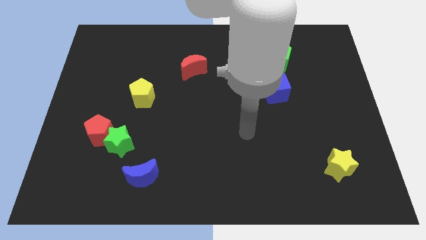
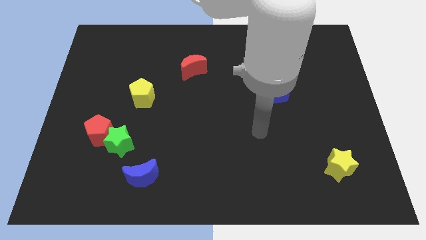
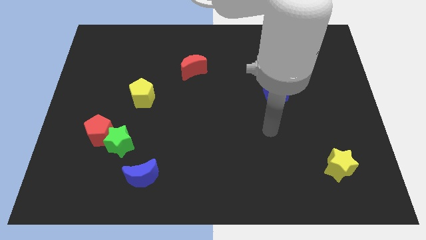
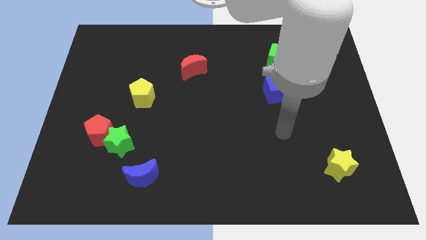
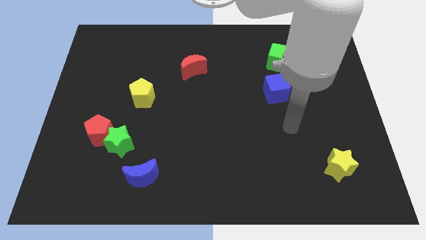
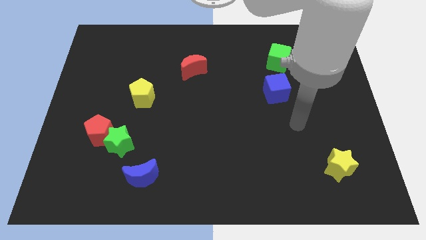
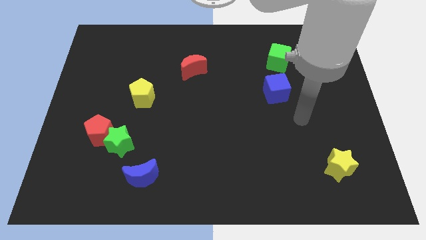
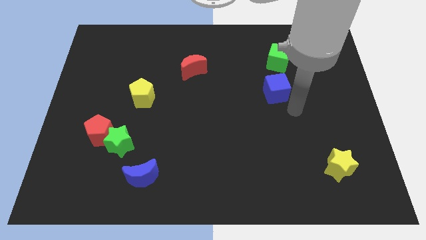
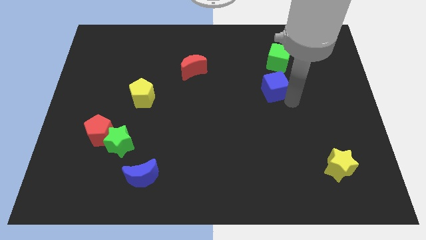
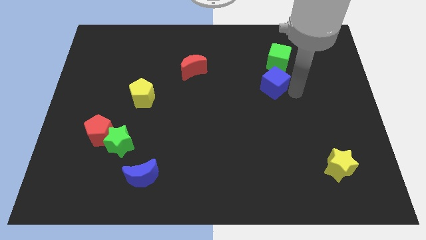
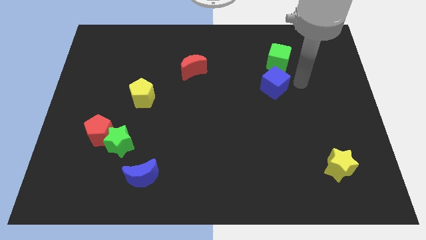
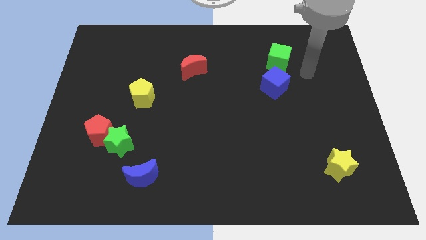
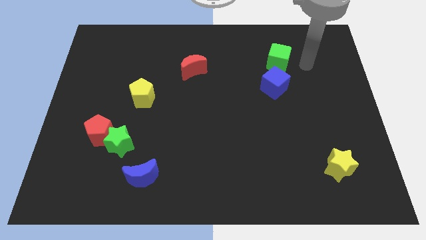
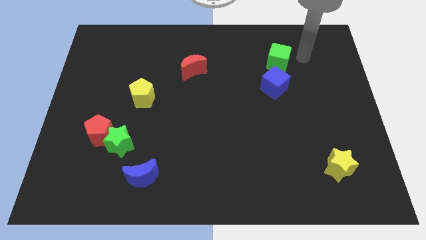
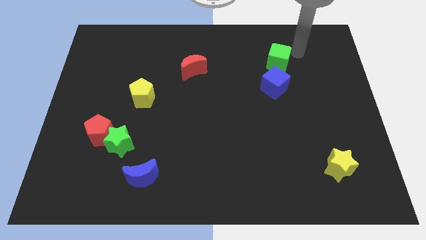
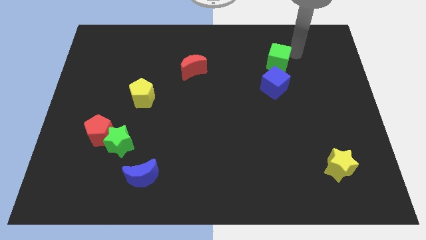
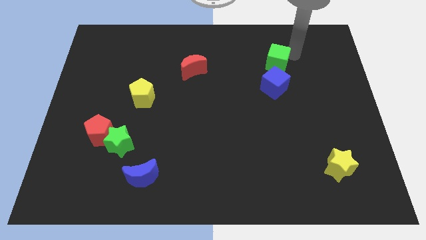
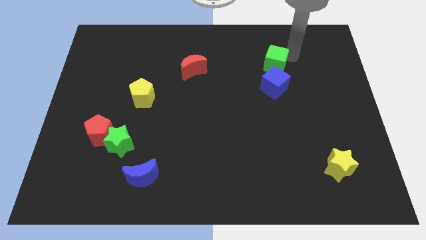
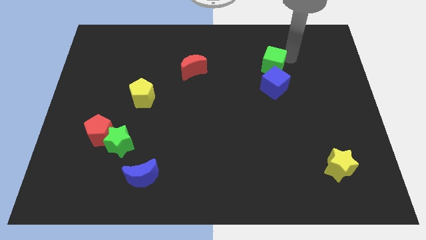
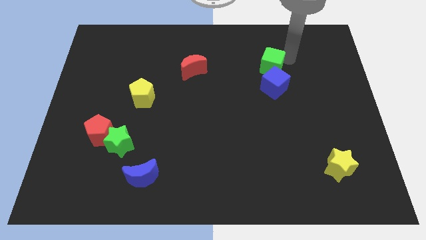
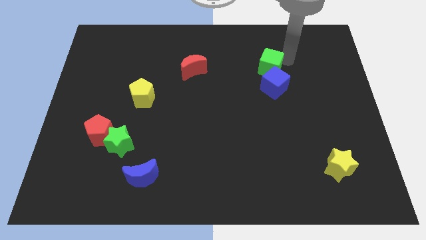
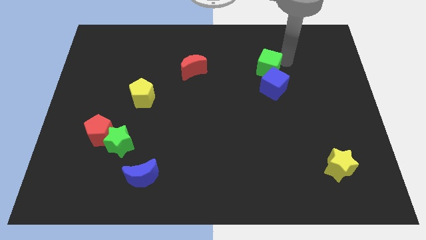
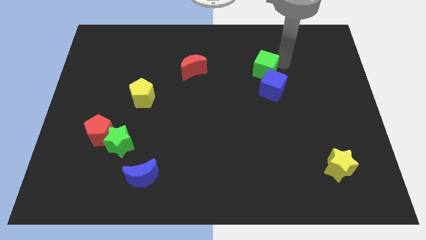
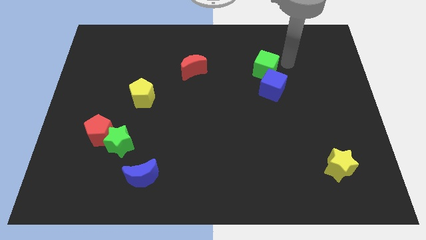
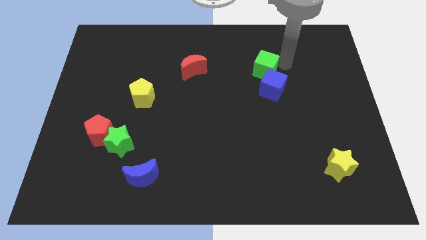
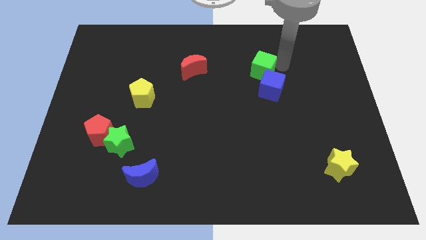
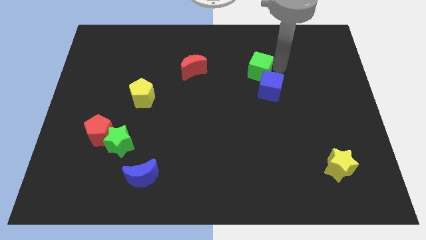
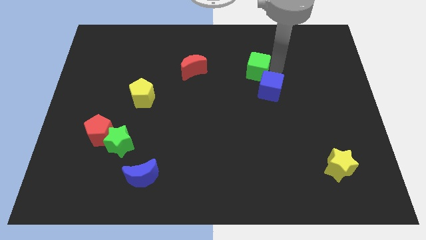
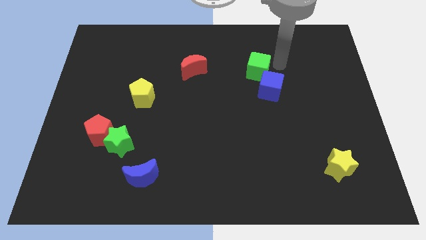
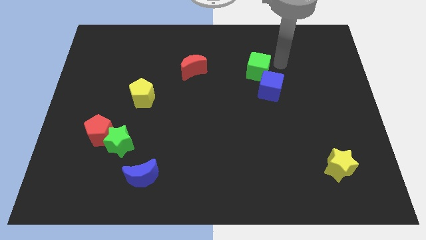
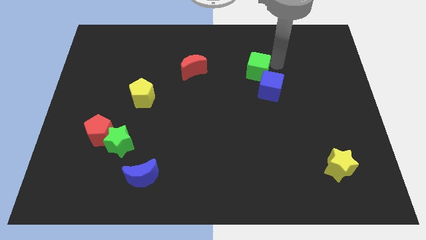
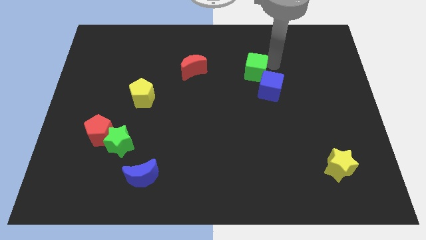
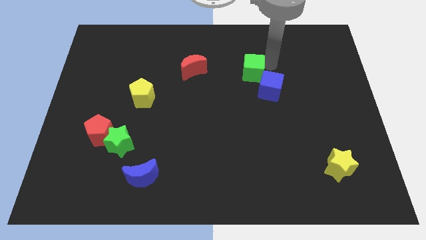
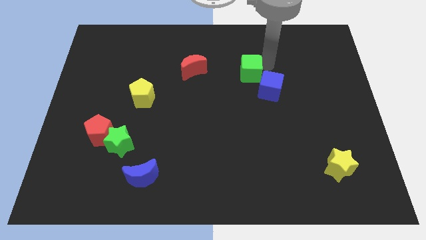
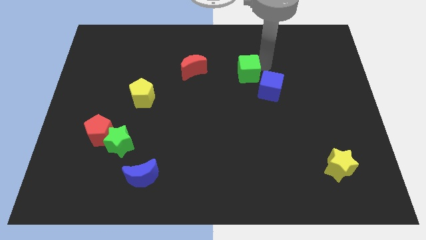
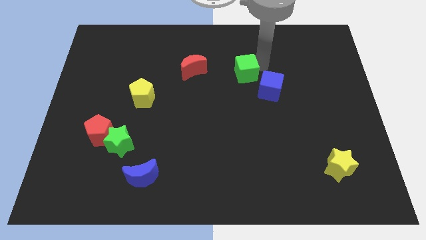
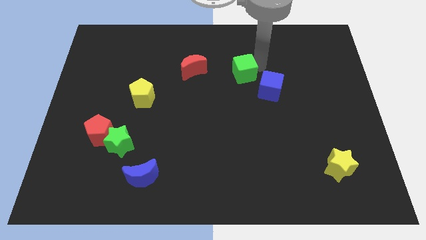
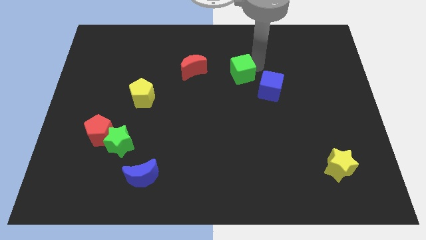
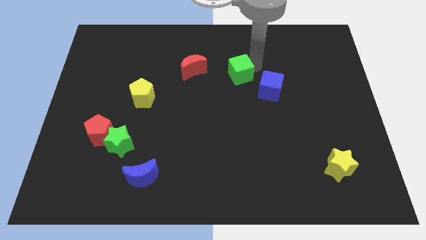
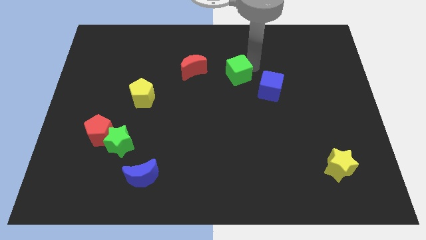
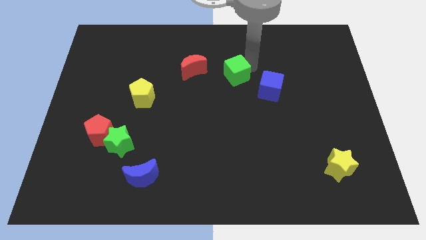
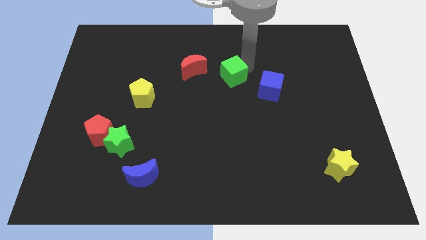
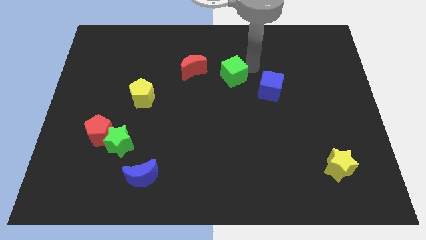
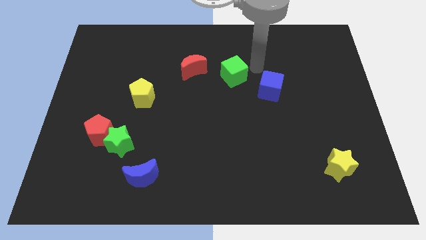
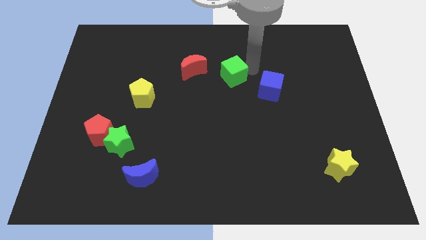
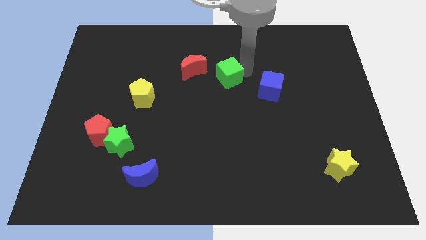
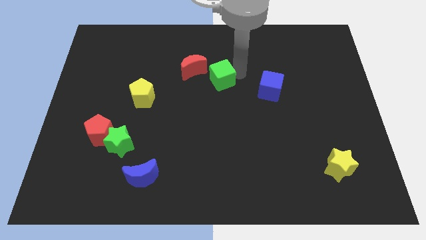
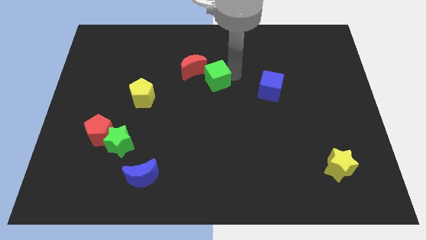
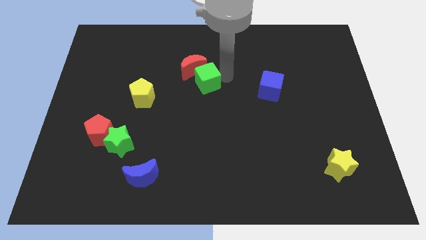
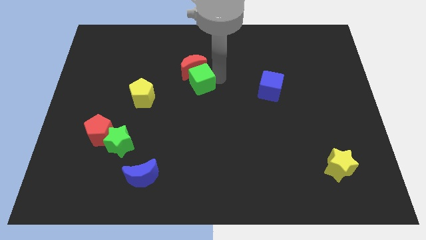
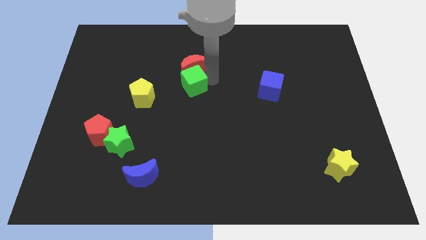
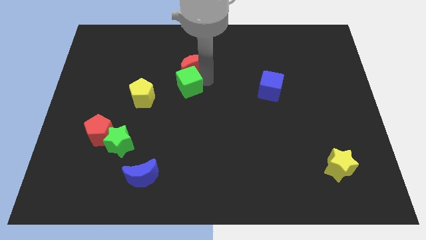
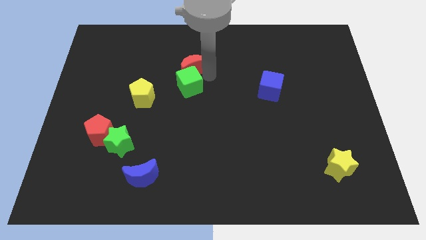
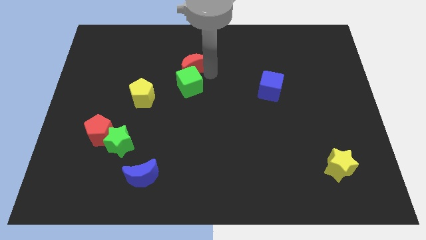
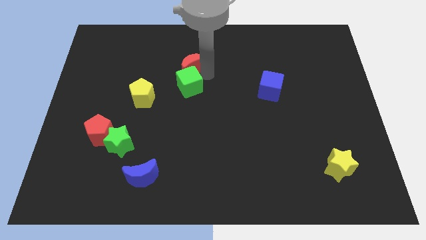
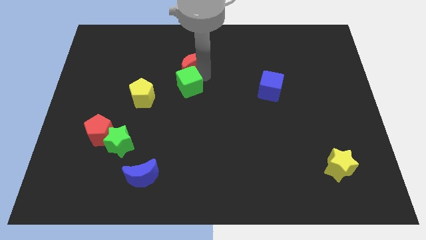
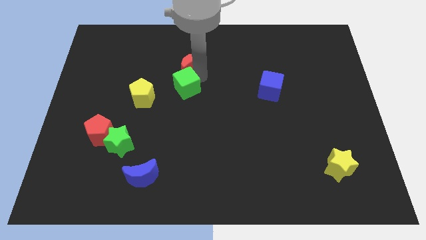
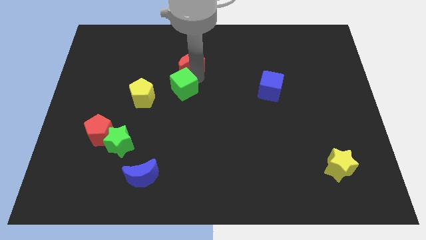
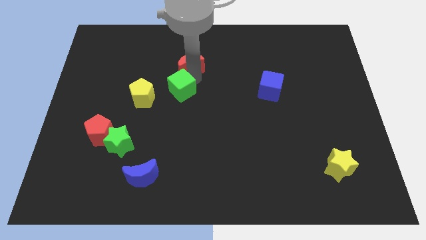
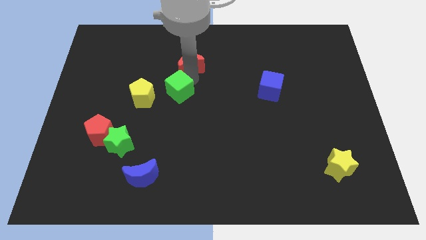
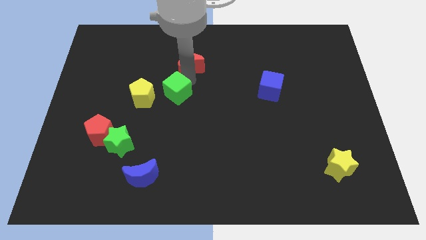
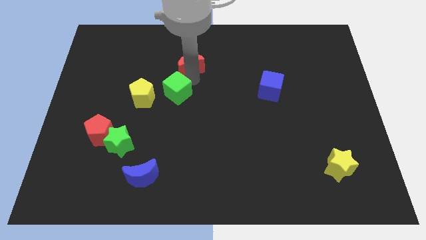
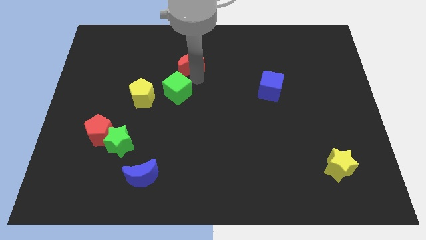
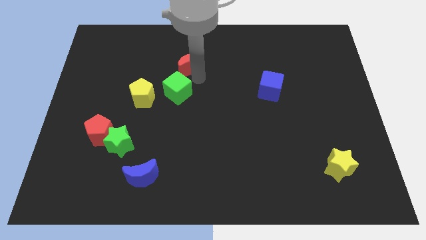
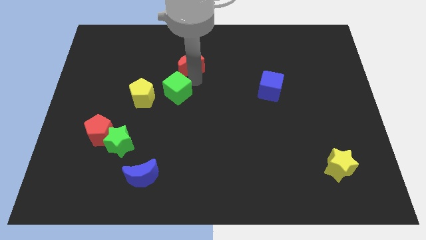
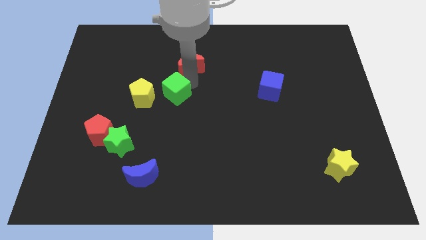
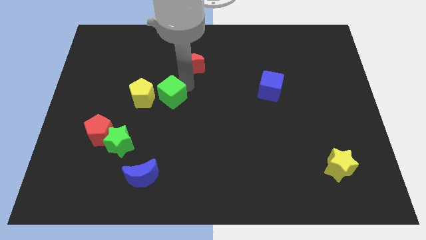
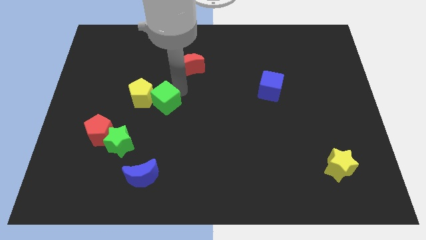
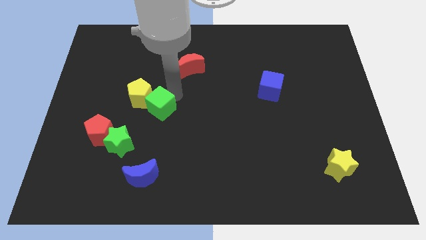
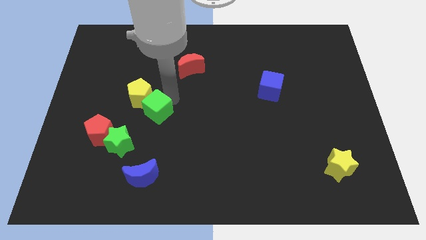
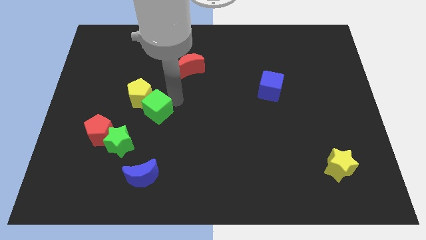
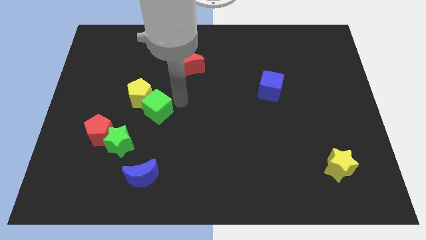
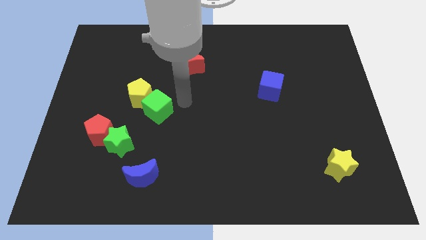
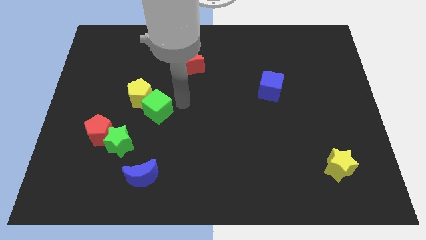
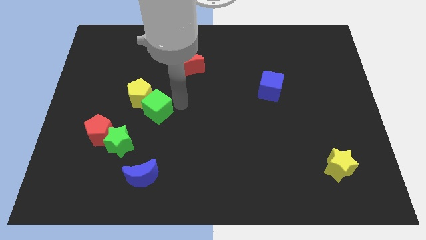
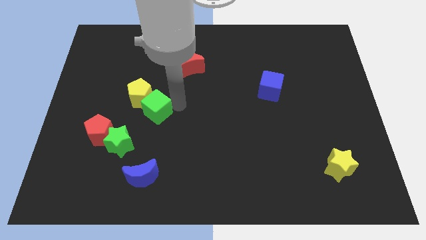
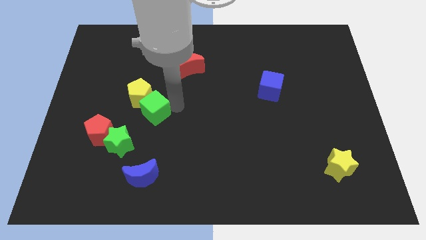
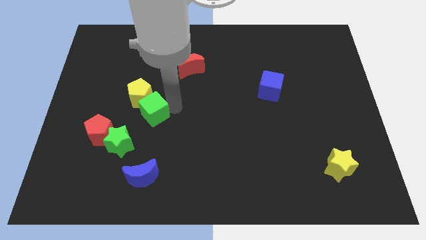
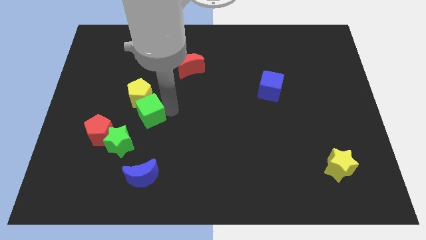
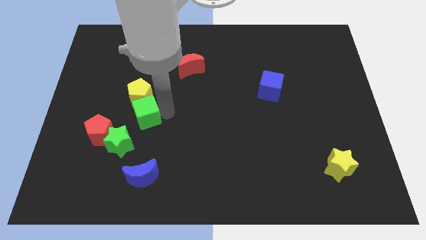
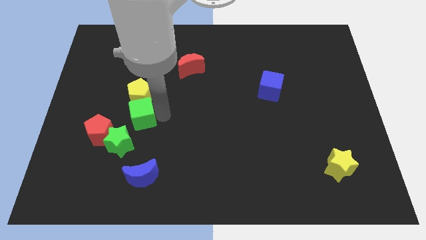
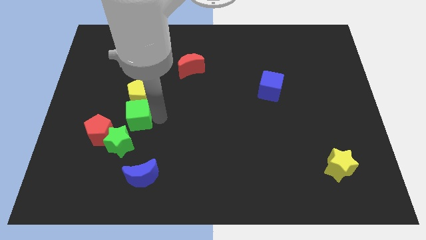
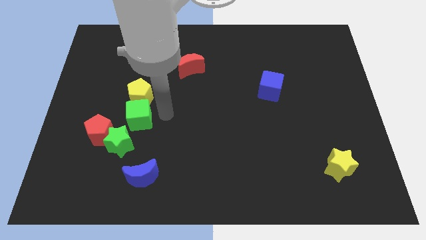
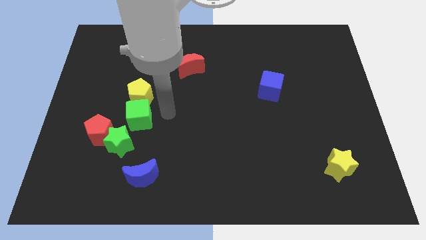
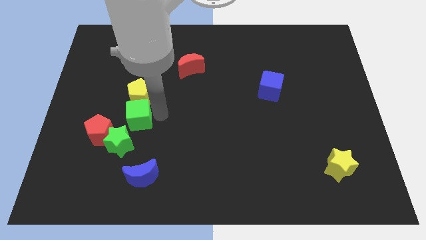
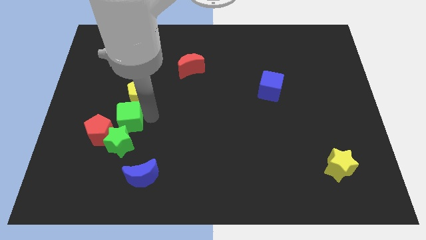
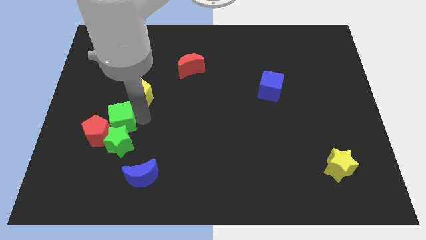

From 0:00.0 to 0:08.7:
put the green cube to the top left side of the green star
